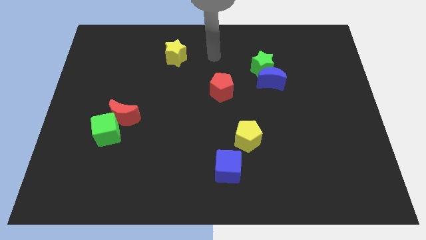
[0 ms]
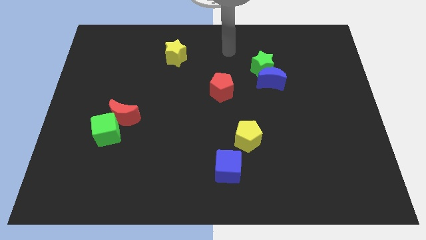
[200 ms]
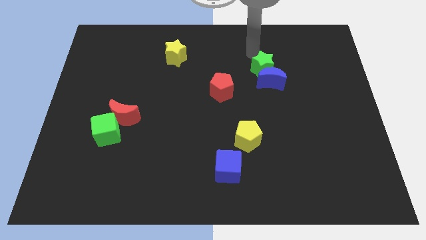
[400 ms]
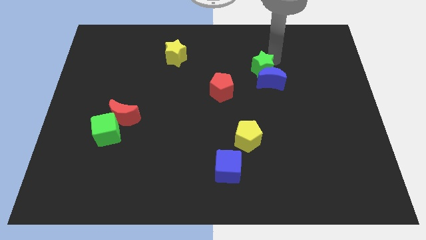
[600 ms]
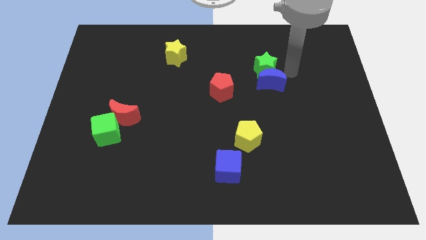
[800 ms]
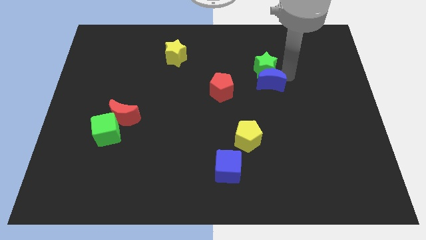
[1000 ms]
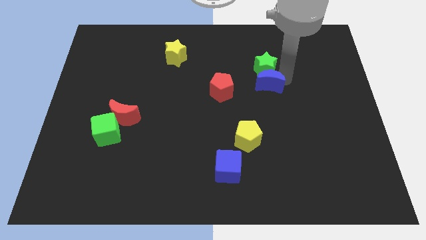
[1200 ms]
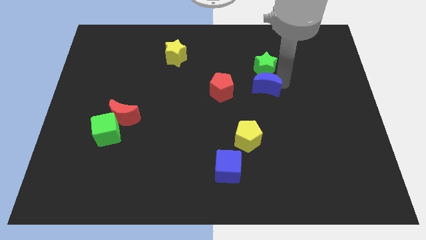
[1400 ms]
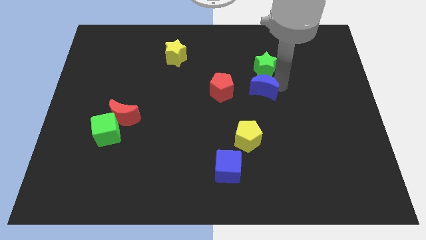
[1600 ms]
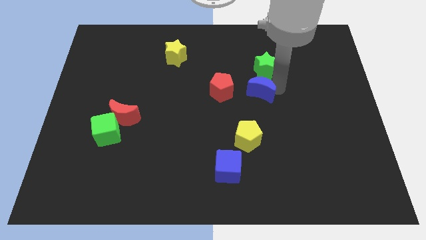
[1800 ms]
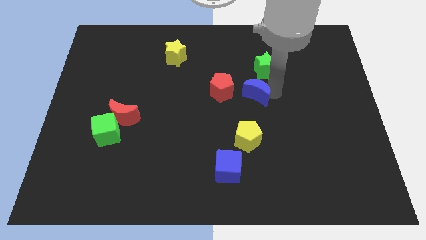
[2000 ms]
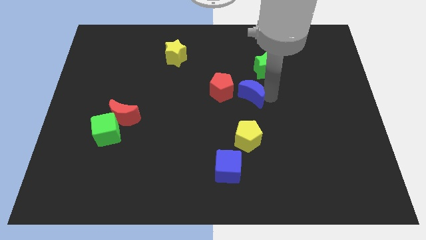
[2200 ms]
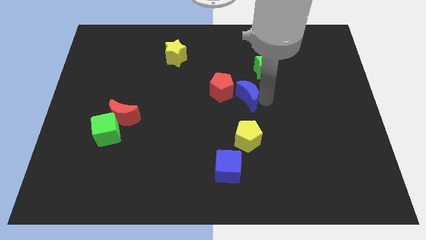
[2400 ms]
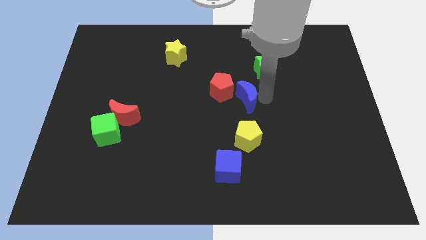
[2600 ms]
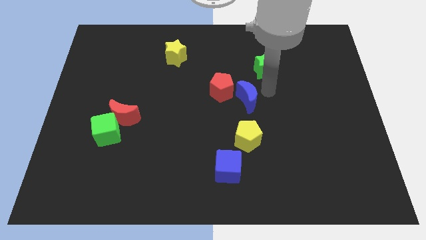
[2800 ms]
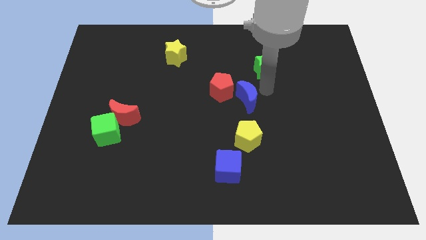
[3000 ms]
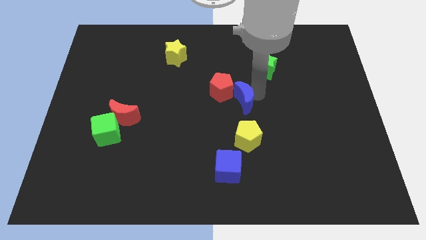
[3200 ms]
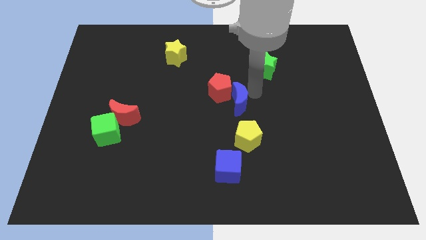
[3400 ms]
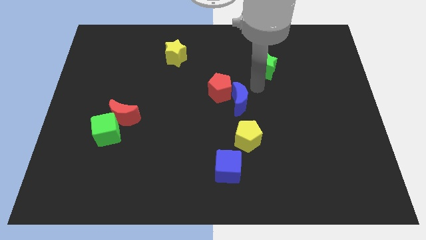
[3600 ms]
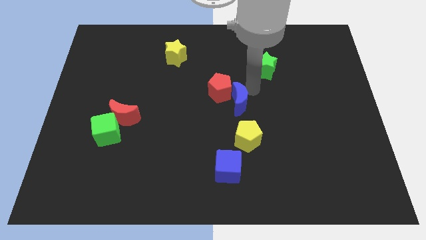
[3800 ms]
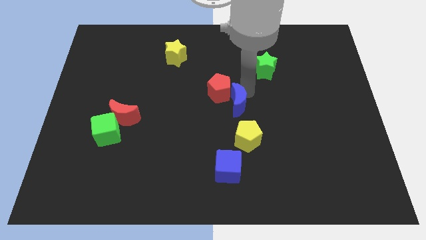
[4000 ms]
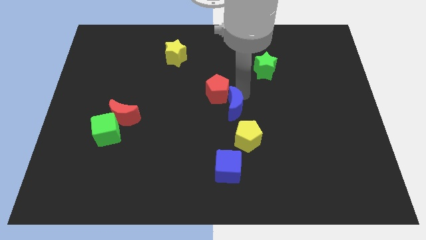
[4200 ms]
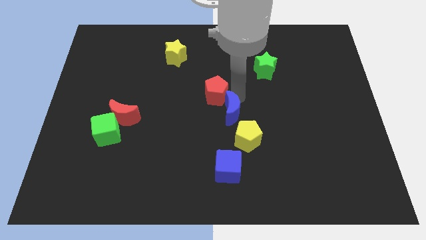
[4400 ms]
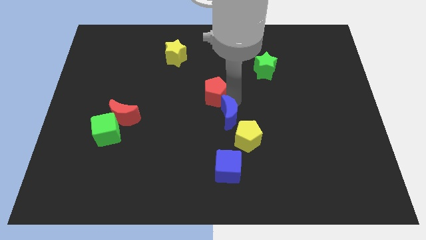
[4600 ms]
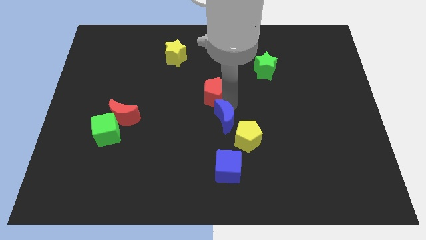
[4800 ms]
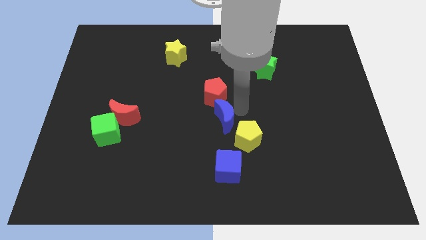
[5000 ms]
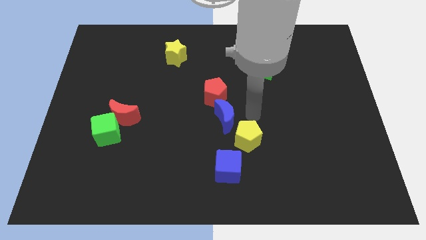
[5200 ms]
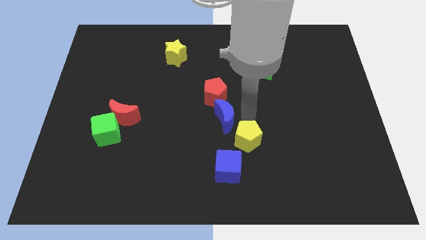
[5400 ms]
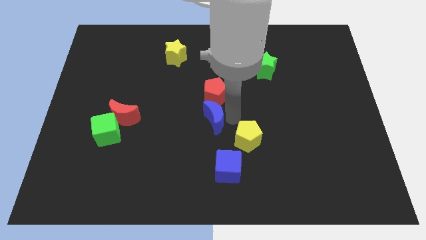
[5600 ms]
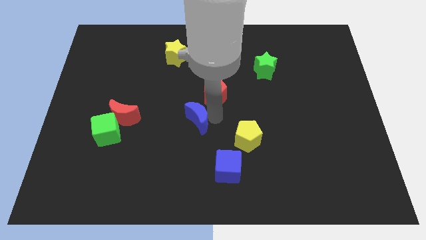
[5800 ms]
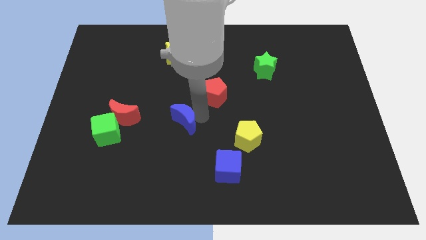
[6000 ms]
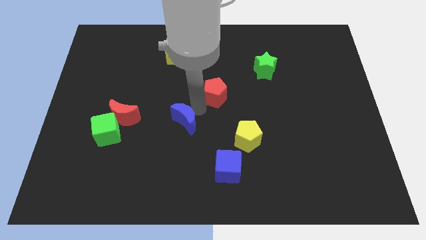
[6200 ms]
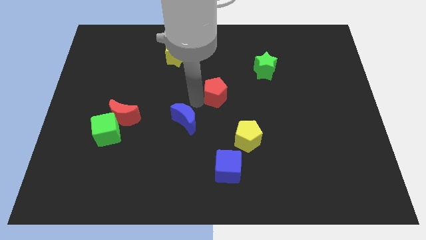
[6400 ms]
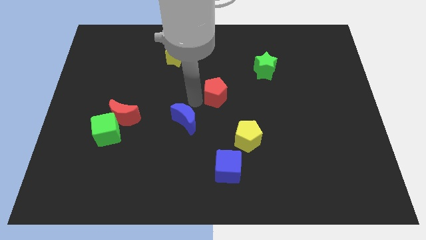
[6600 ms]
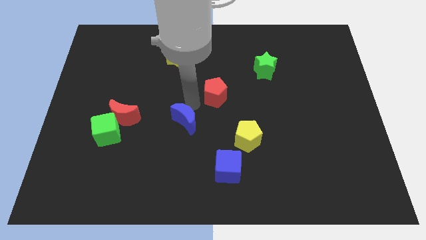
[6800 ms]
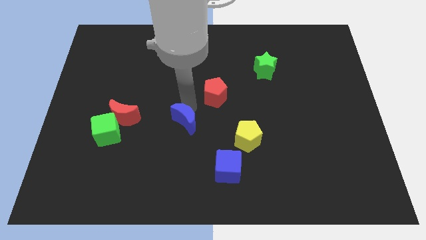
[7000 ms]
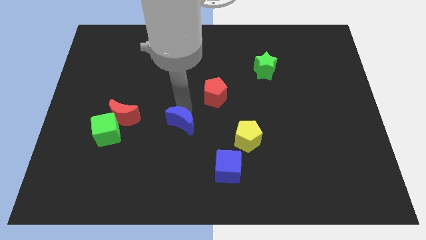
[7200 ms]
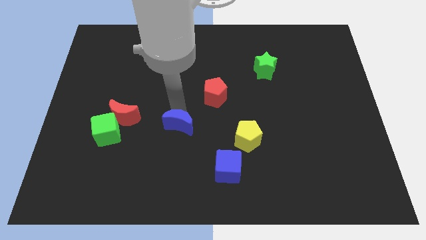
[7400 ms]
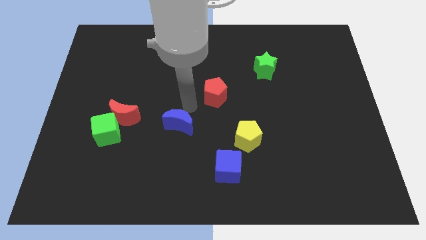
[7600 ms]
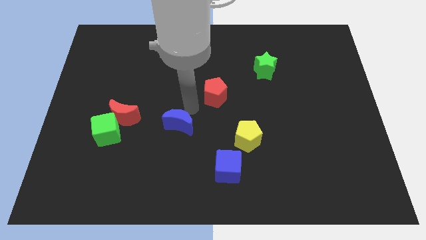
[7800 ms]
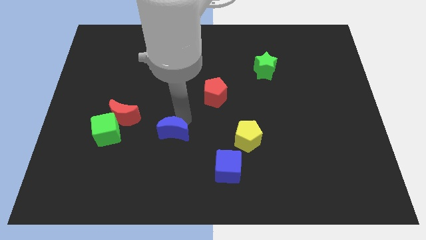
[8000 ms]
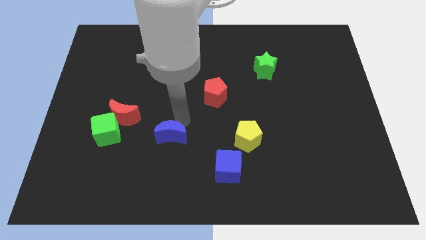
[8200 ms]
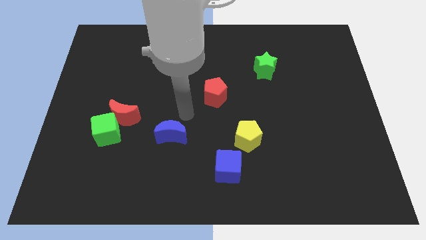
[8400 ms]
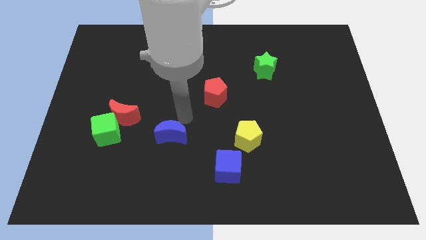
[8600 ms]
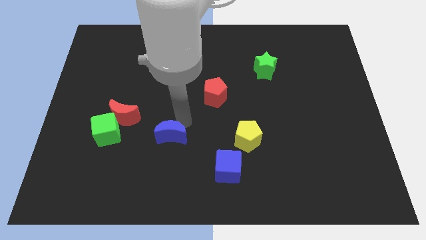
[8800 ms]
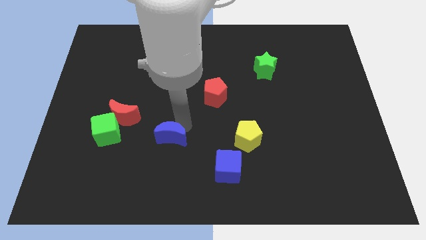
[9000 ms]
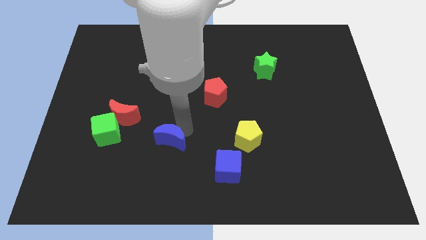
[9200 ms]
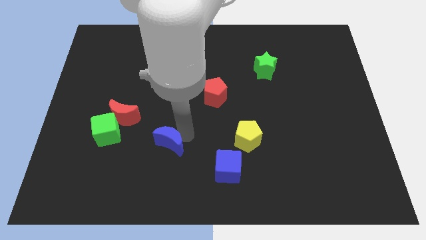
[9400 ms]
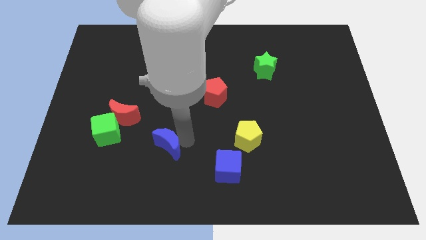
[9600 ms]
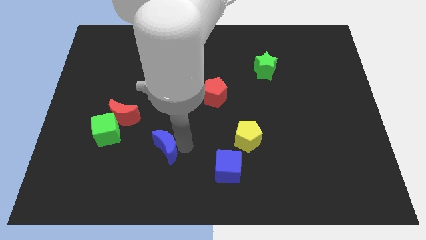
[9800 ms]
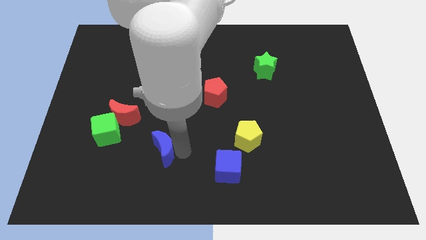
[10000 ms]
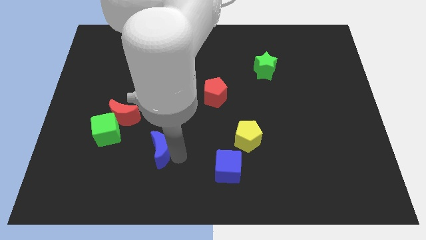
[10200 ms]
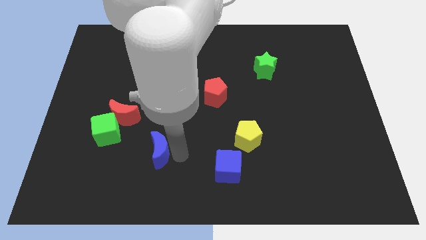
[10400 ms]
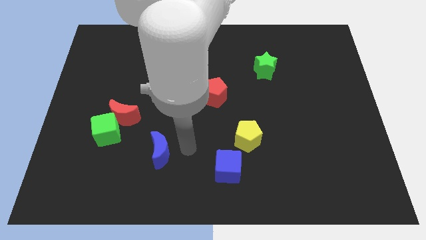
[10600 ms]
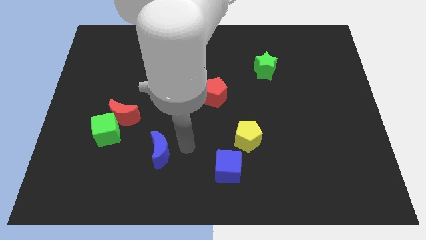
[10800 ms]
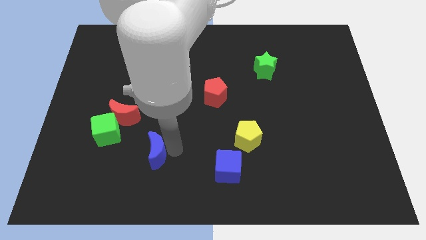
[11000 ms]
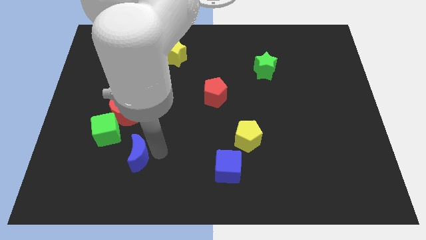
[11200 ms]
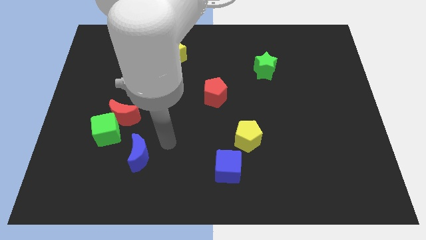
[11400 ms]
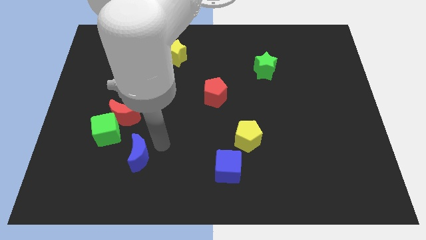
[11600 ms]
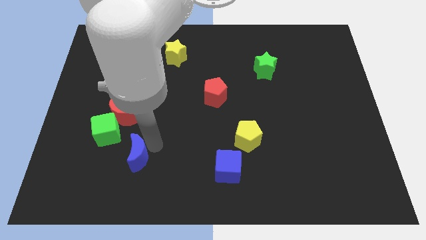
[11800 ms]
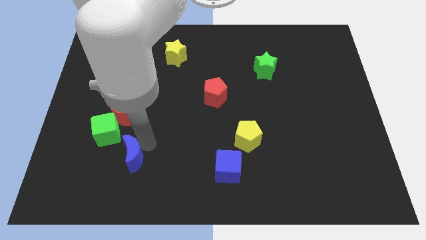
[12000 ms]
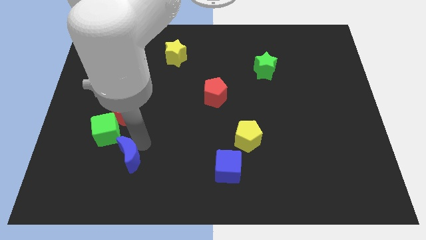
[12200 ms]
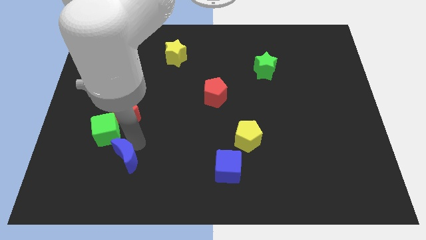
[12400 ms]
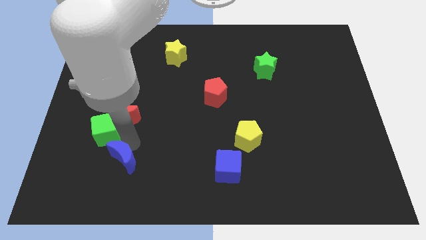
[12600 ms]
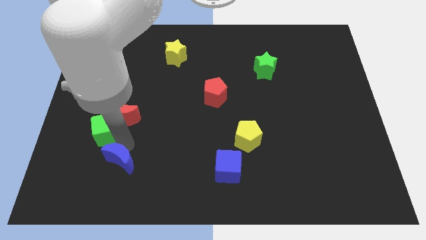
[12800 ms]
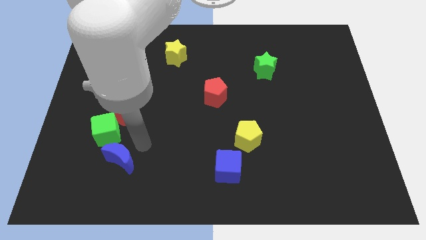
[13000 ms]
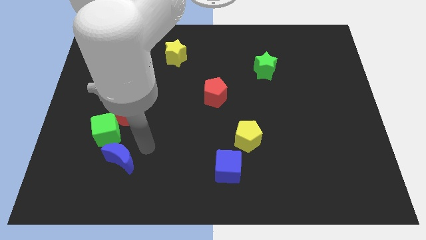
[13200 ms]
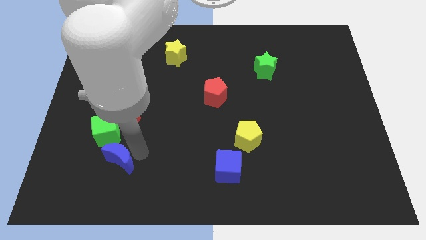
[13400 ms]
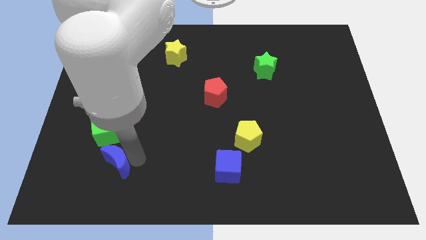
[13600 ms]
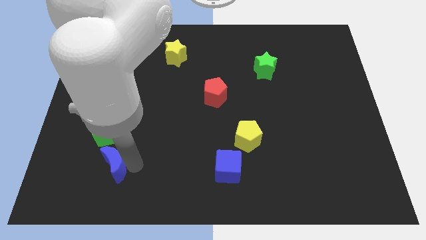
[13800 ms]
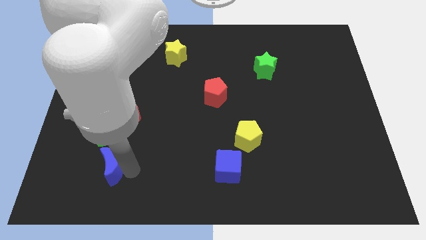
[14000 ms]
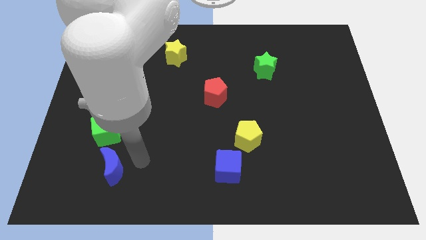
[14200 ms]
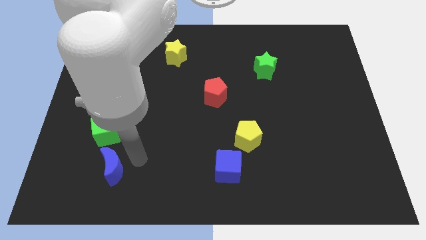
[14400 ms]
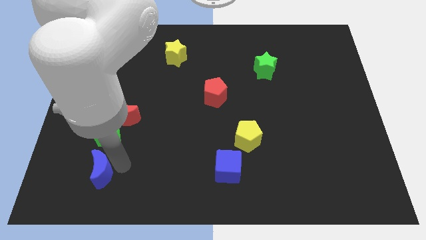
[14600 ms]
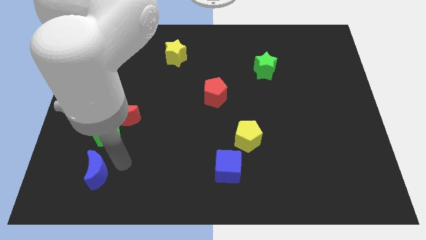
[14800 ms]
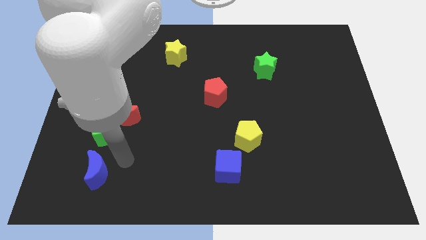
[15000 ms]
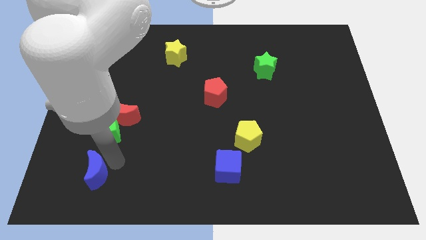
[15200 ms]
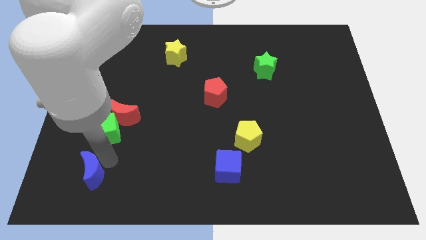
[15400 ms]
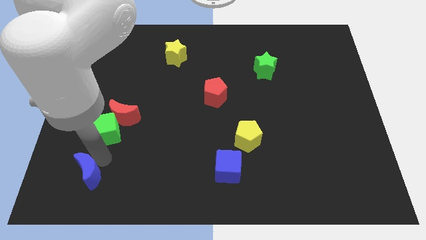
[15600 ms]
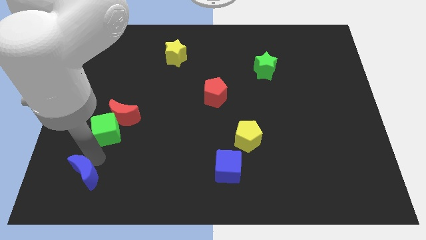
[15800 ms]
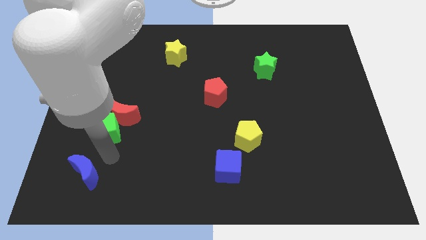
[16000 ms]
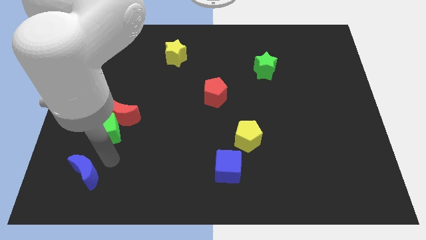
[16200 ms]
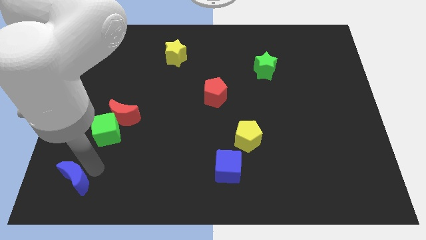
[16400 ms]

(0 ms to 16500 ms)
put the blue moon to the lower left corner
